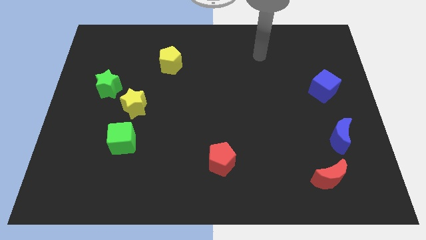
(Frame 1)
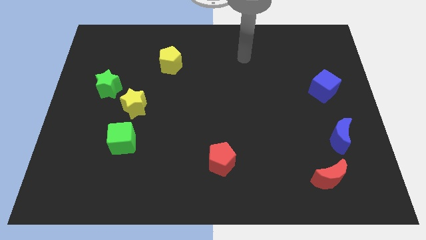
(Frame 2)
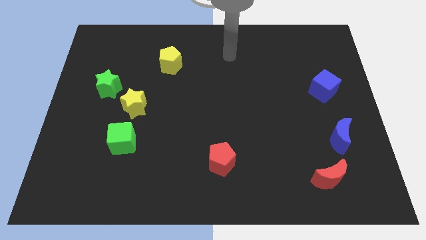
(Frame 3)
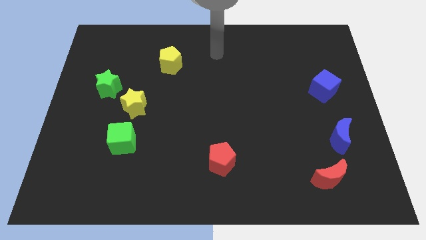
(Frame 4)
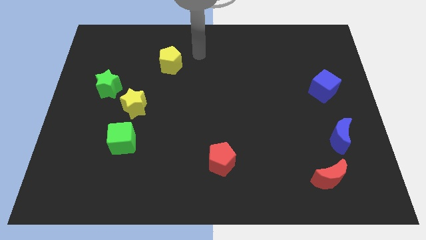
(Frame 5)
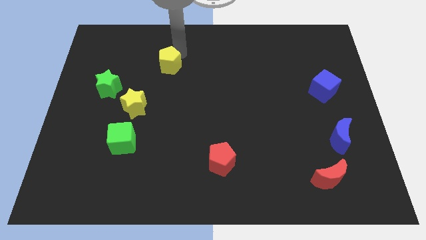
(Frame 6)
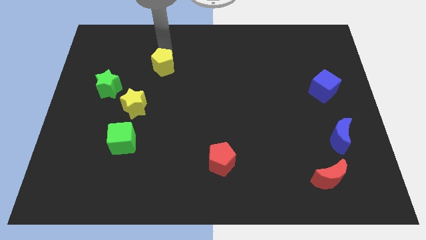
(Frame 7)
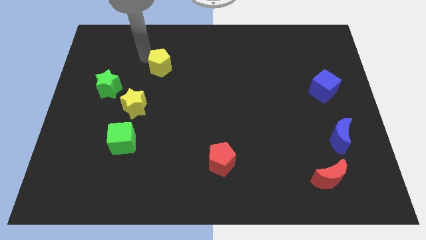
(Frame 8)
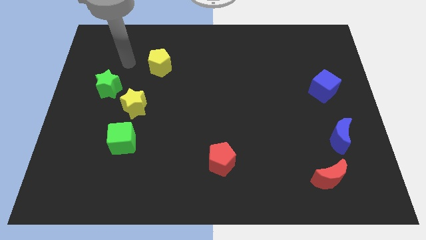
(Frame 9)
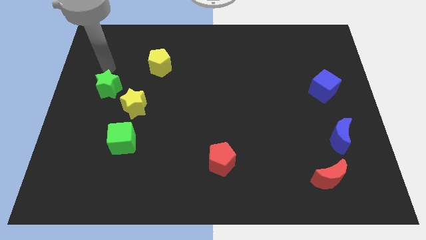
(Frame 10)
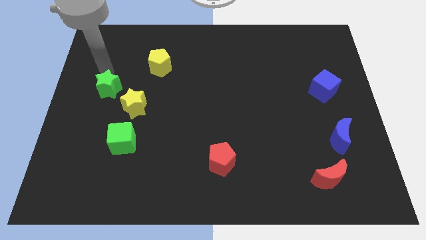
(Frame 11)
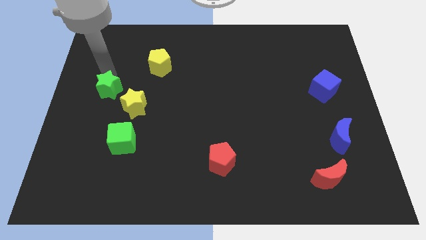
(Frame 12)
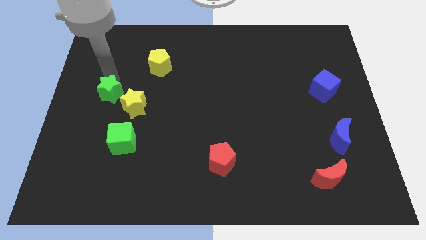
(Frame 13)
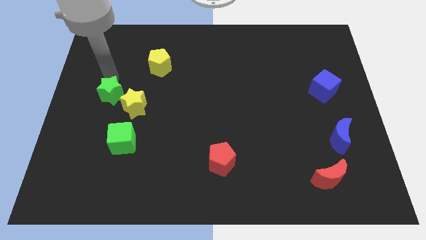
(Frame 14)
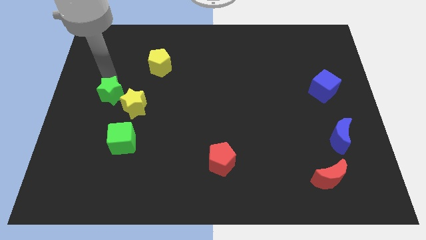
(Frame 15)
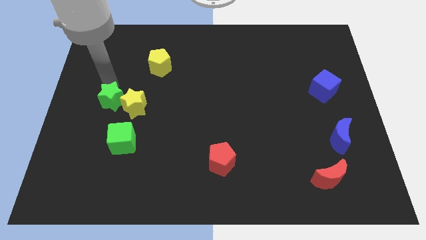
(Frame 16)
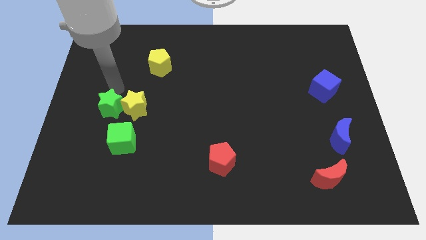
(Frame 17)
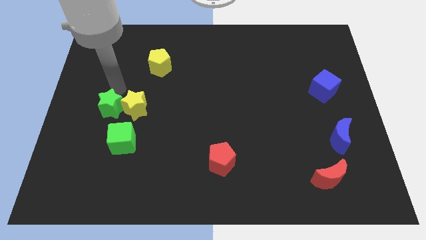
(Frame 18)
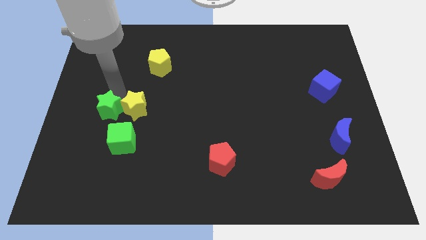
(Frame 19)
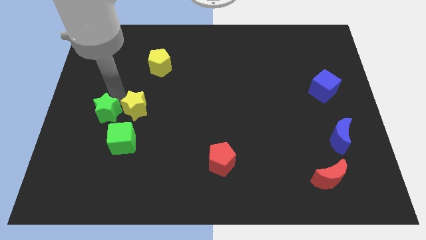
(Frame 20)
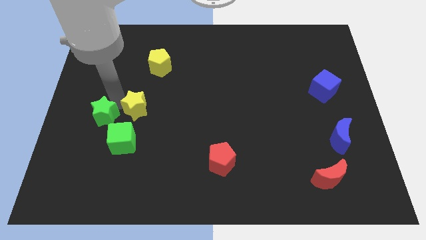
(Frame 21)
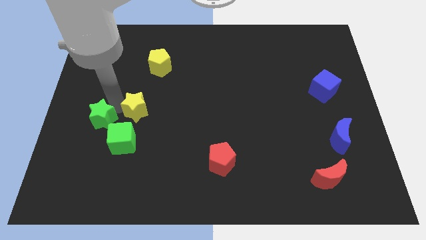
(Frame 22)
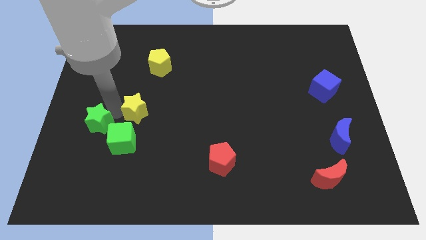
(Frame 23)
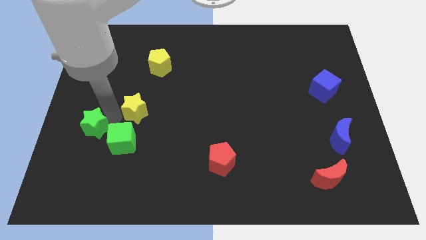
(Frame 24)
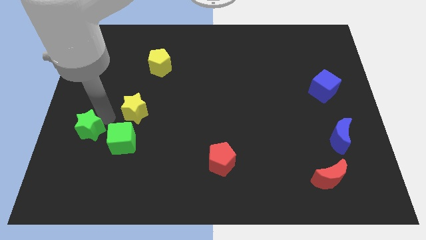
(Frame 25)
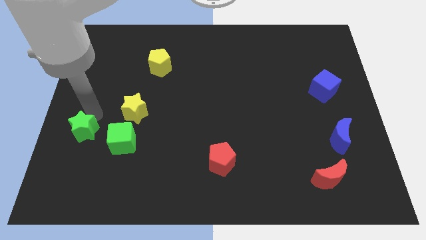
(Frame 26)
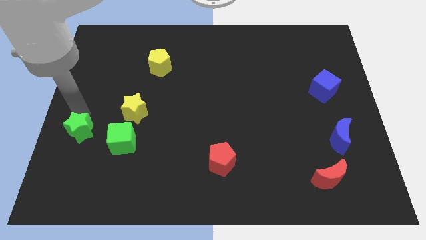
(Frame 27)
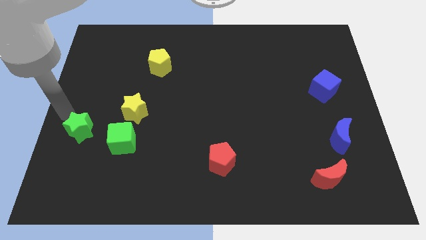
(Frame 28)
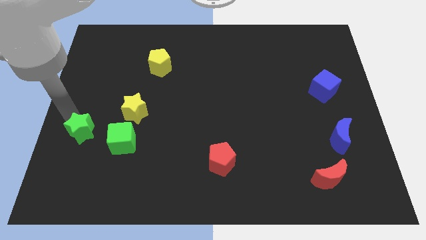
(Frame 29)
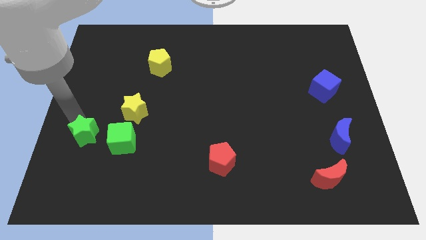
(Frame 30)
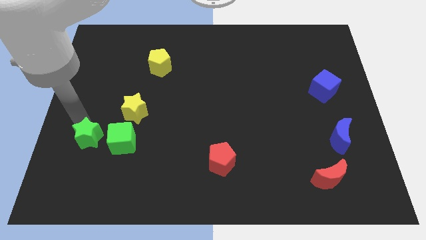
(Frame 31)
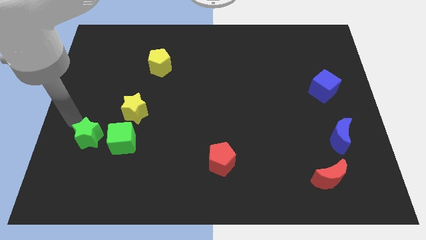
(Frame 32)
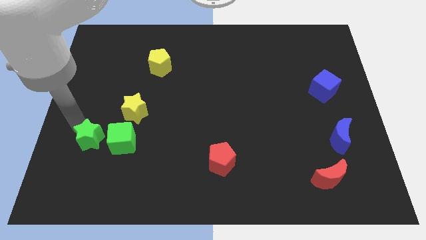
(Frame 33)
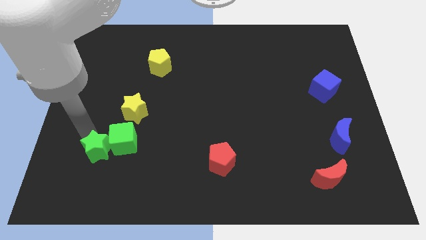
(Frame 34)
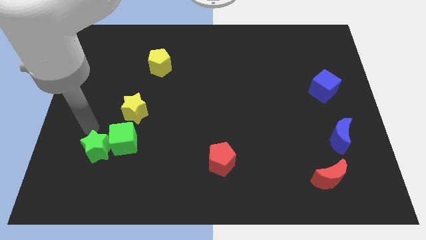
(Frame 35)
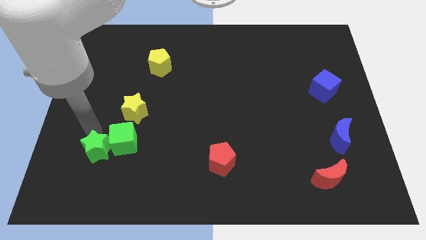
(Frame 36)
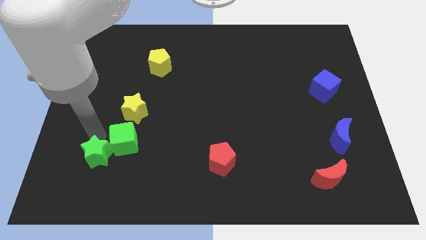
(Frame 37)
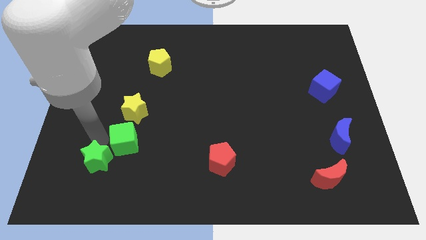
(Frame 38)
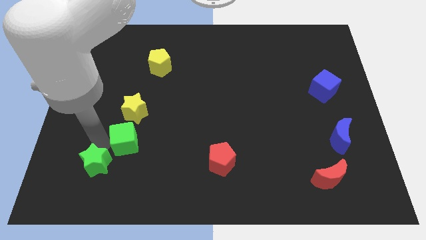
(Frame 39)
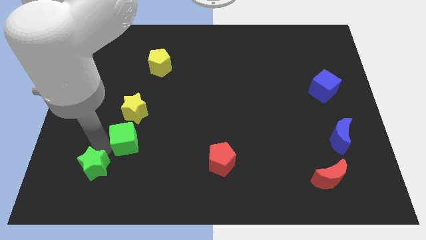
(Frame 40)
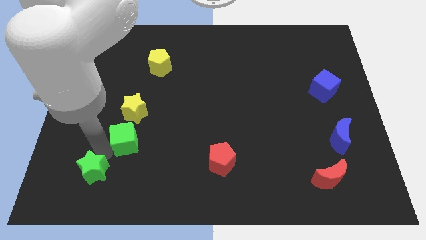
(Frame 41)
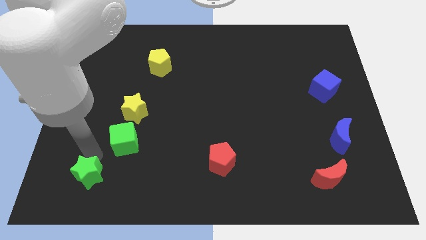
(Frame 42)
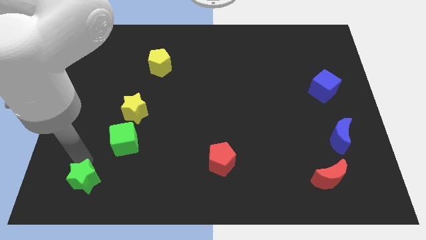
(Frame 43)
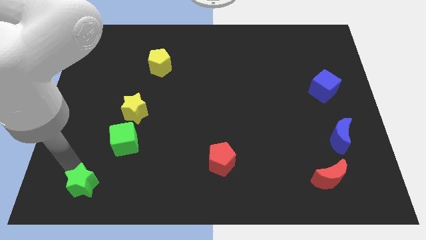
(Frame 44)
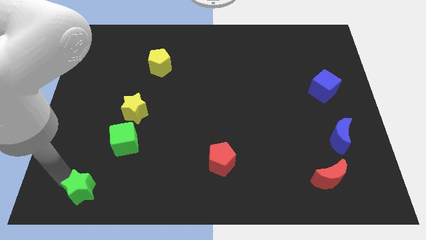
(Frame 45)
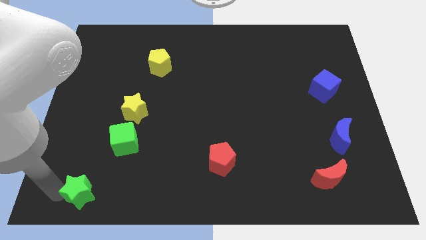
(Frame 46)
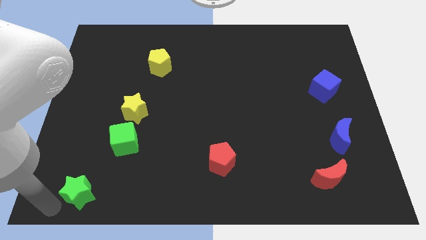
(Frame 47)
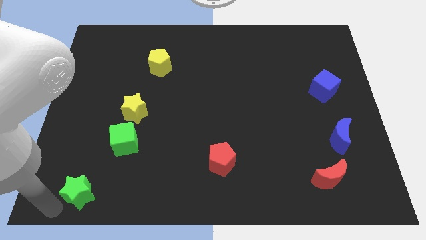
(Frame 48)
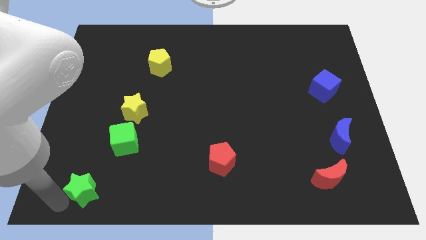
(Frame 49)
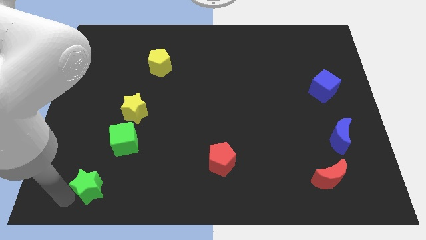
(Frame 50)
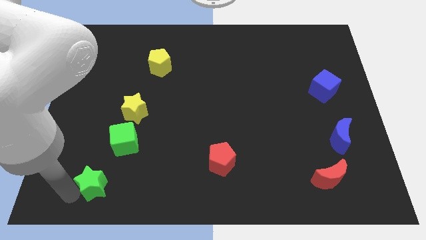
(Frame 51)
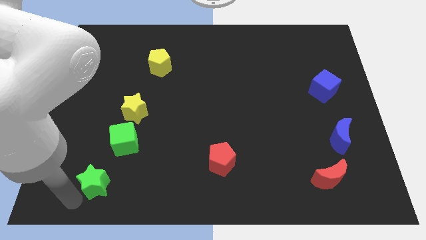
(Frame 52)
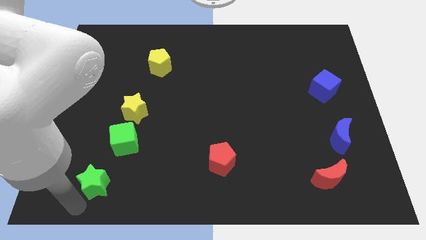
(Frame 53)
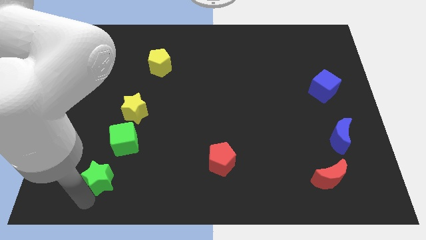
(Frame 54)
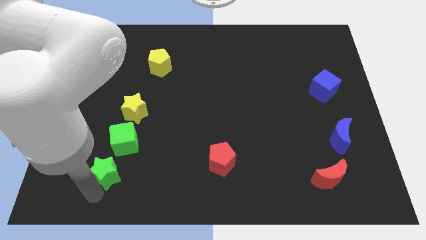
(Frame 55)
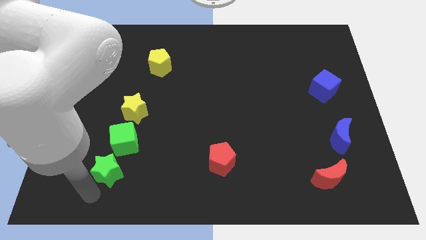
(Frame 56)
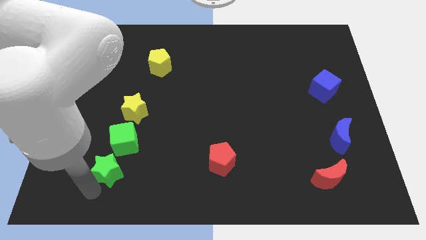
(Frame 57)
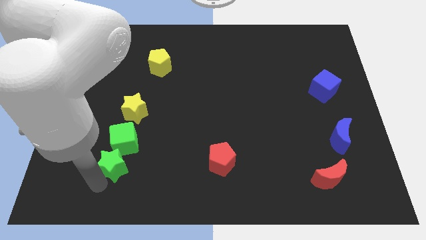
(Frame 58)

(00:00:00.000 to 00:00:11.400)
move the green star to the bottom side of the yellow star
